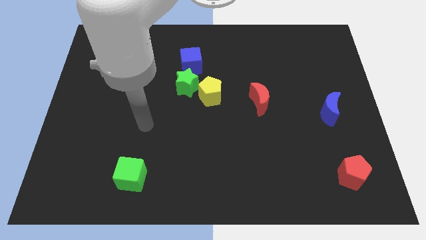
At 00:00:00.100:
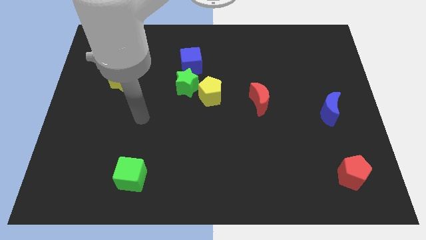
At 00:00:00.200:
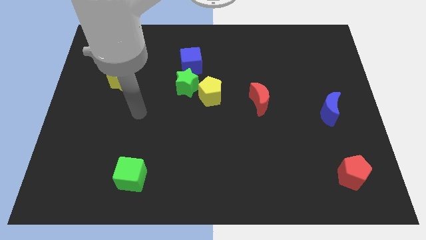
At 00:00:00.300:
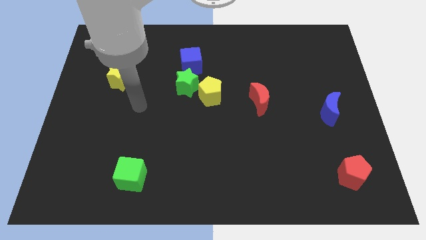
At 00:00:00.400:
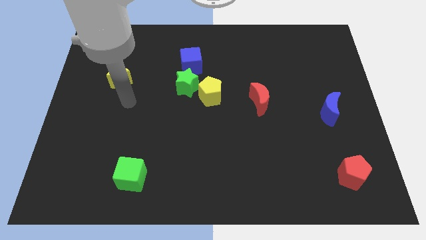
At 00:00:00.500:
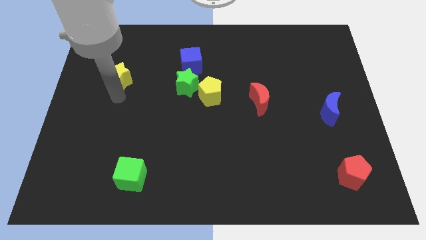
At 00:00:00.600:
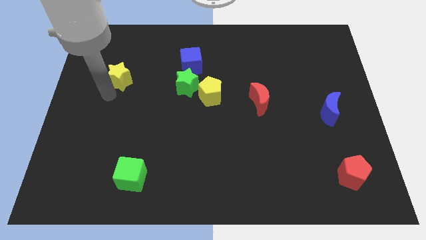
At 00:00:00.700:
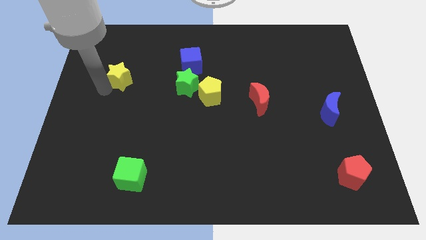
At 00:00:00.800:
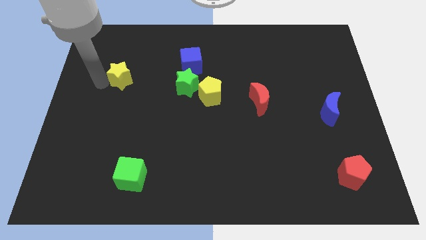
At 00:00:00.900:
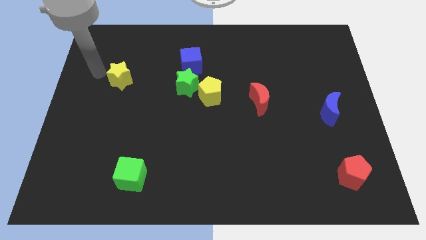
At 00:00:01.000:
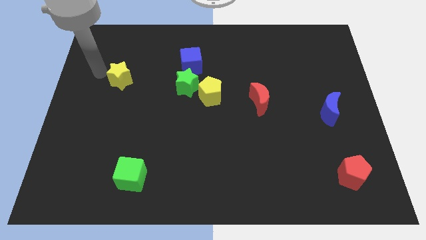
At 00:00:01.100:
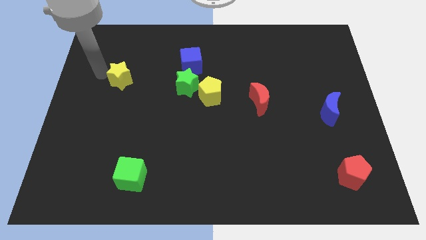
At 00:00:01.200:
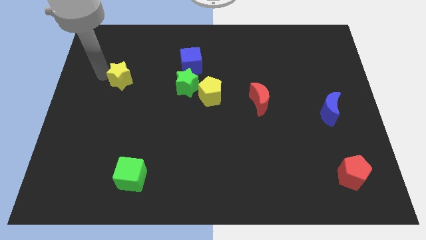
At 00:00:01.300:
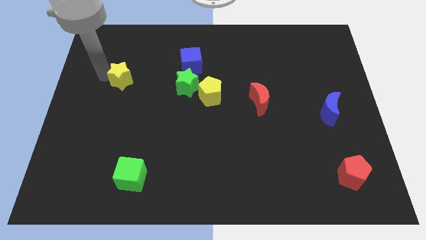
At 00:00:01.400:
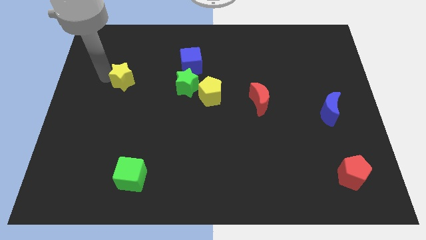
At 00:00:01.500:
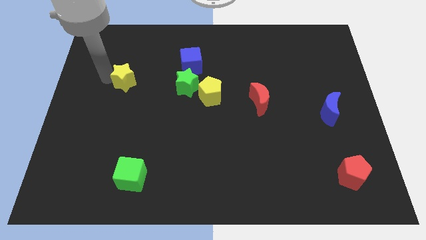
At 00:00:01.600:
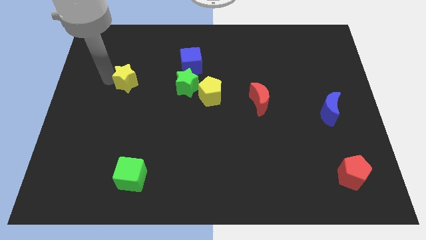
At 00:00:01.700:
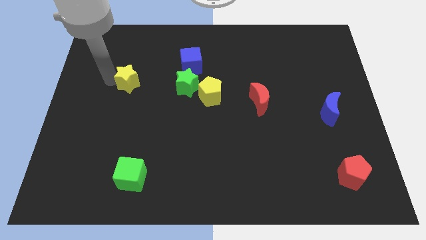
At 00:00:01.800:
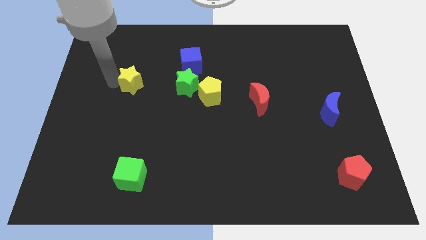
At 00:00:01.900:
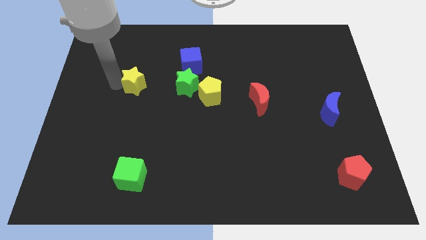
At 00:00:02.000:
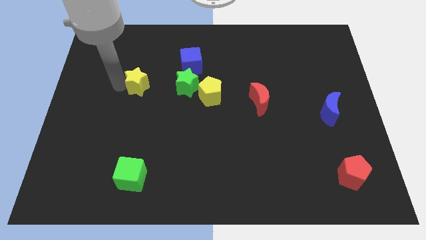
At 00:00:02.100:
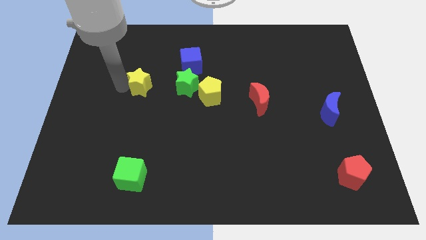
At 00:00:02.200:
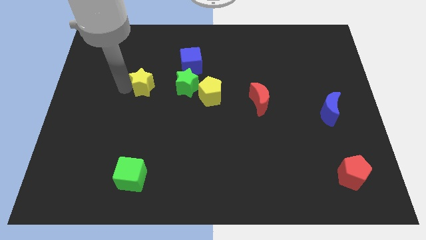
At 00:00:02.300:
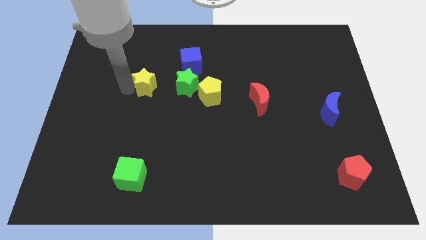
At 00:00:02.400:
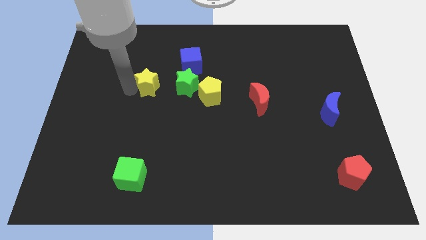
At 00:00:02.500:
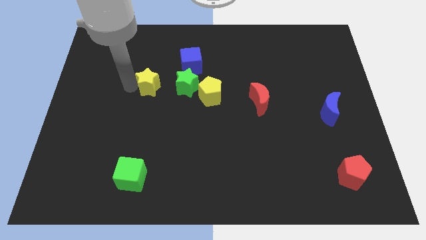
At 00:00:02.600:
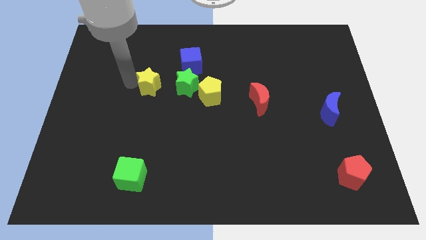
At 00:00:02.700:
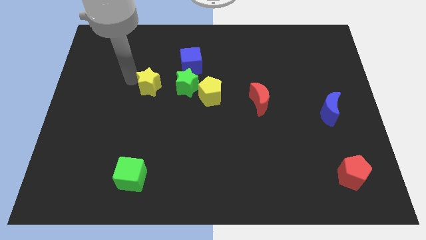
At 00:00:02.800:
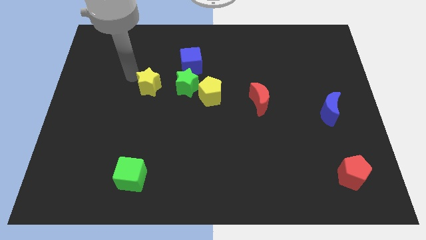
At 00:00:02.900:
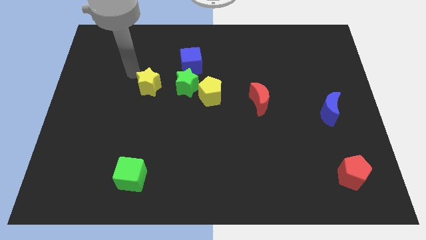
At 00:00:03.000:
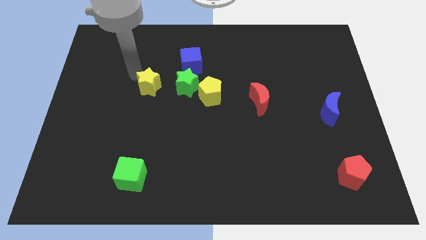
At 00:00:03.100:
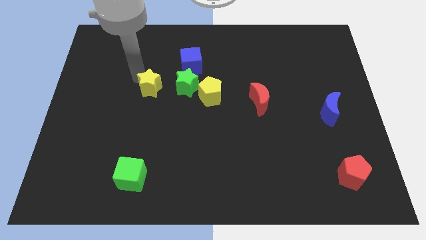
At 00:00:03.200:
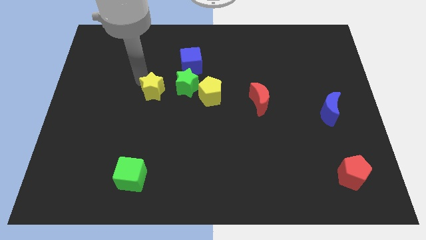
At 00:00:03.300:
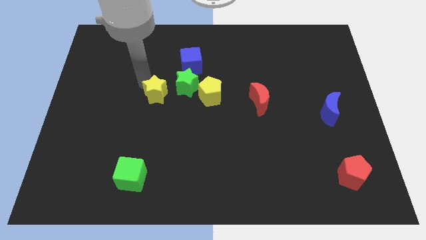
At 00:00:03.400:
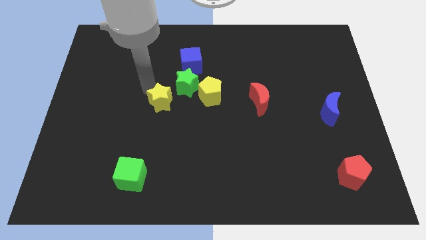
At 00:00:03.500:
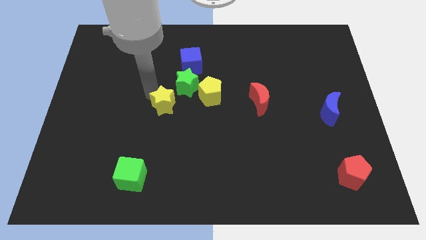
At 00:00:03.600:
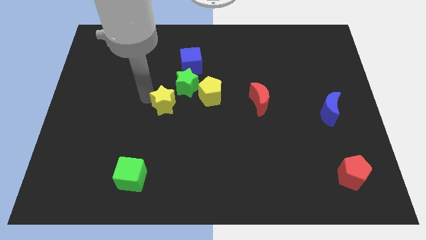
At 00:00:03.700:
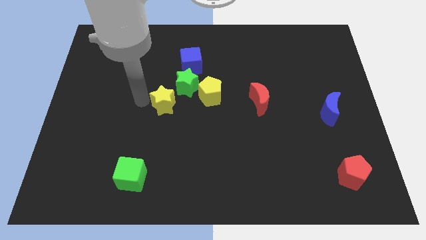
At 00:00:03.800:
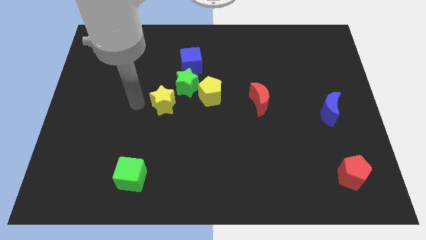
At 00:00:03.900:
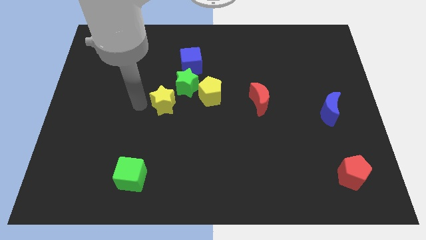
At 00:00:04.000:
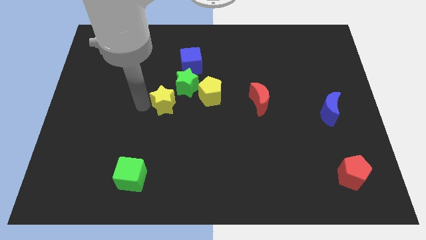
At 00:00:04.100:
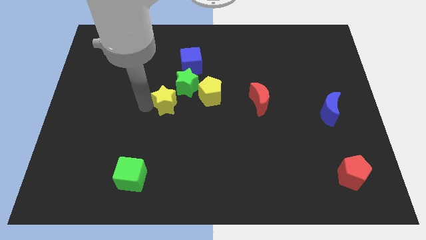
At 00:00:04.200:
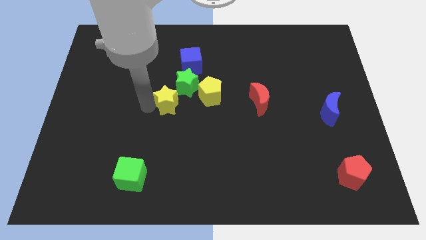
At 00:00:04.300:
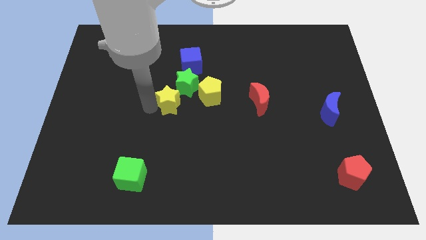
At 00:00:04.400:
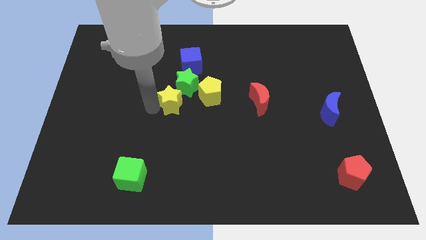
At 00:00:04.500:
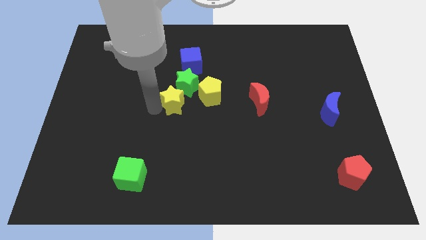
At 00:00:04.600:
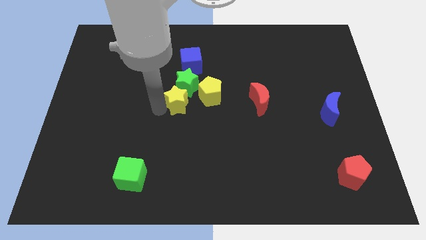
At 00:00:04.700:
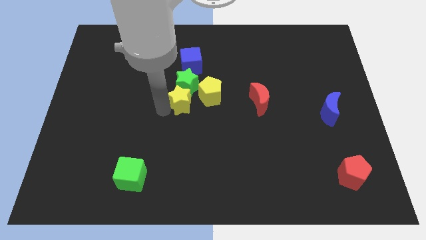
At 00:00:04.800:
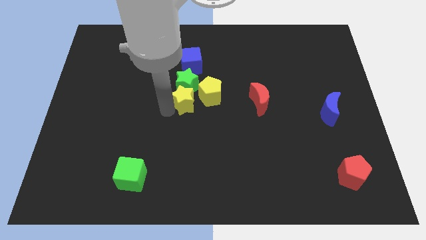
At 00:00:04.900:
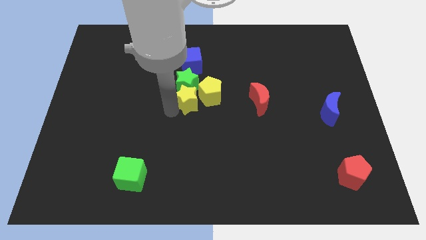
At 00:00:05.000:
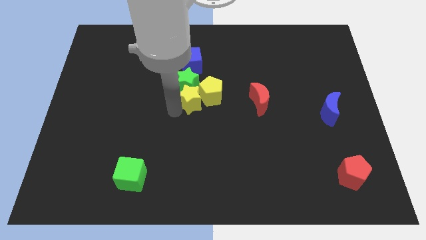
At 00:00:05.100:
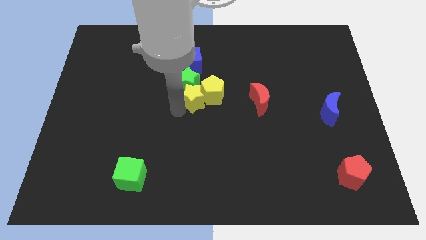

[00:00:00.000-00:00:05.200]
slide the yellow star left of the red moon

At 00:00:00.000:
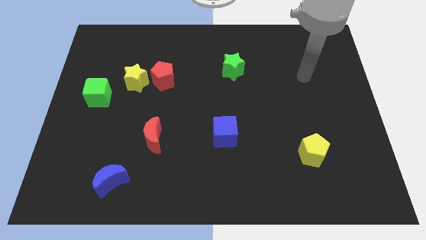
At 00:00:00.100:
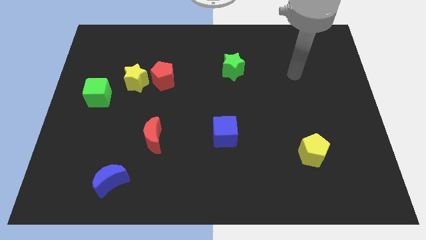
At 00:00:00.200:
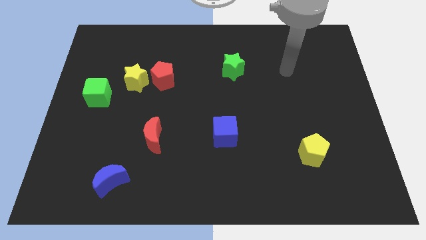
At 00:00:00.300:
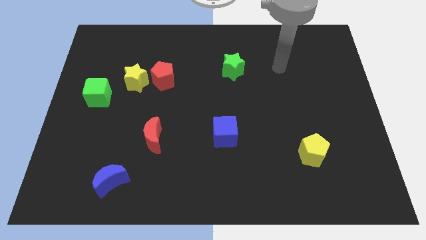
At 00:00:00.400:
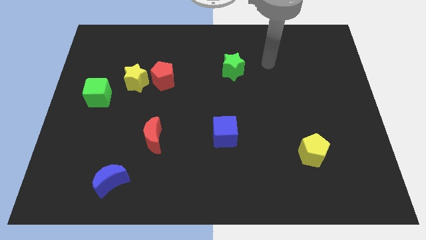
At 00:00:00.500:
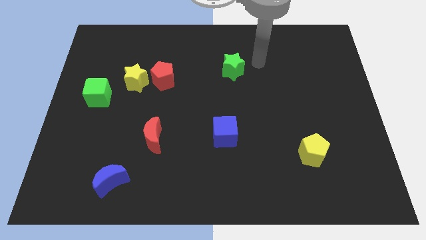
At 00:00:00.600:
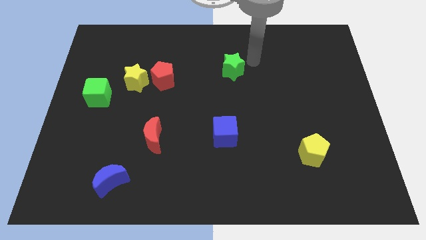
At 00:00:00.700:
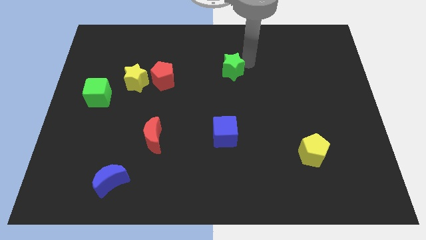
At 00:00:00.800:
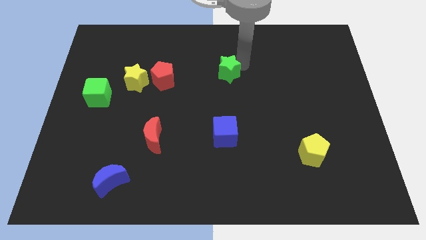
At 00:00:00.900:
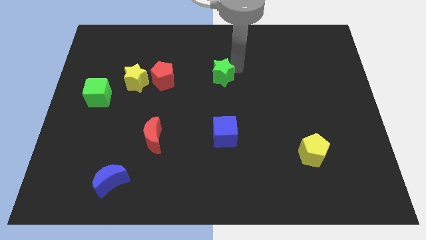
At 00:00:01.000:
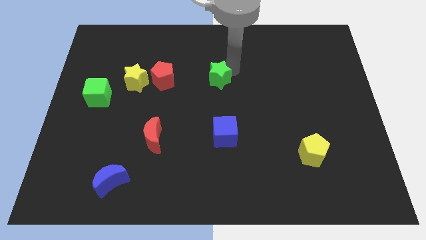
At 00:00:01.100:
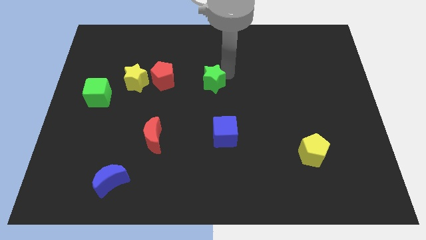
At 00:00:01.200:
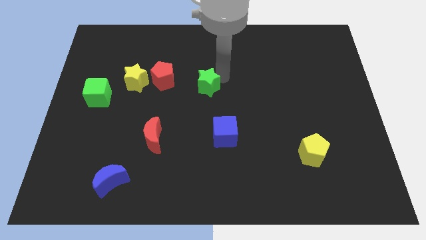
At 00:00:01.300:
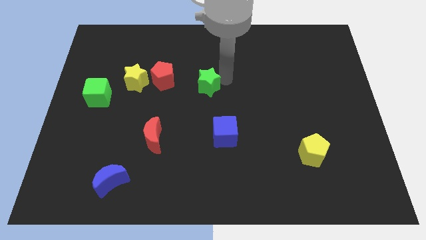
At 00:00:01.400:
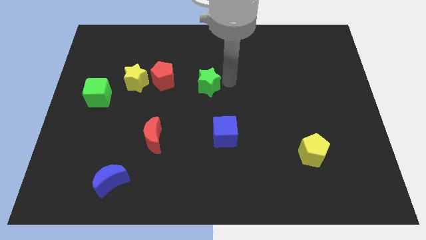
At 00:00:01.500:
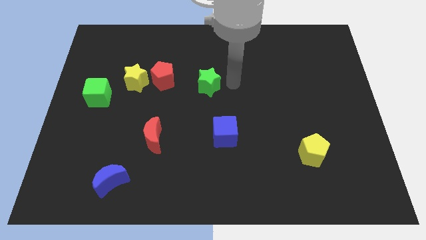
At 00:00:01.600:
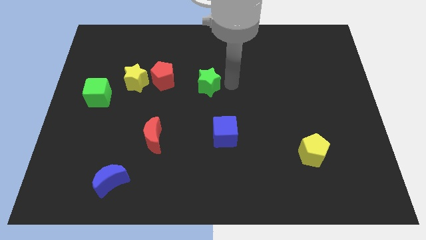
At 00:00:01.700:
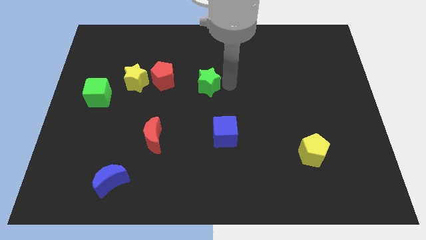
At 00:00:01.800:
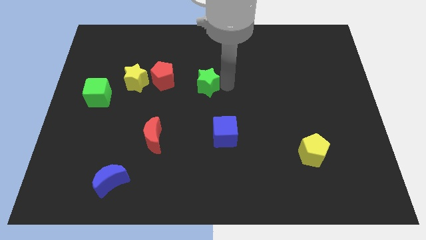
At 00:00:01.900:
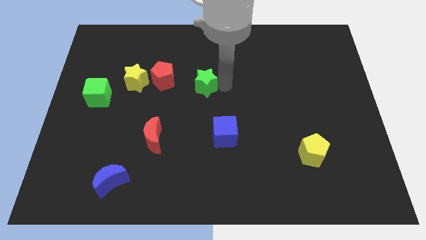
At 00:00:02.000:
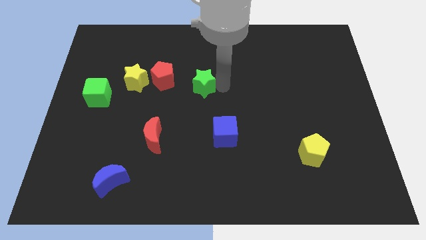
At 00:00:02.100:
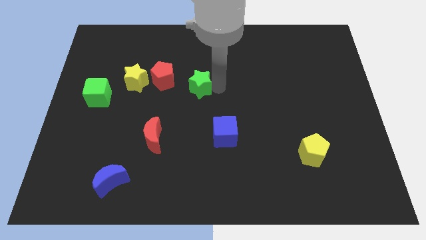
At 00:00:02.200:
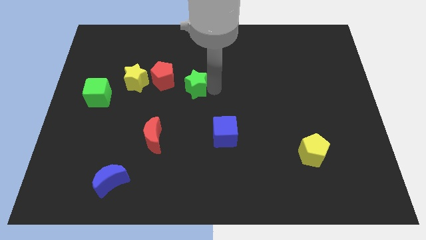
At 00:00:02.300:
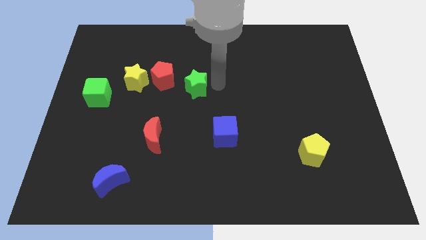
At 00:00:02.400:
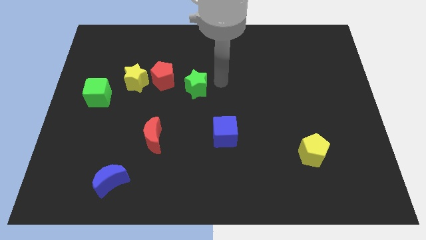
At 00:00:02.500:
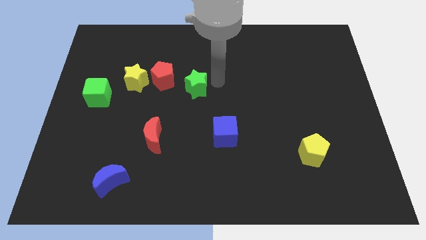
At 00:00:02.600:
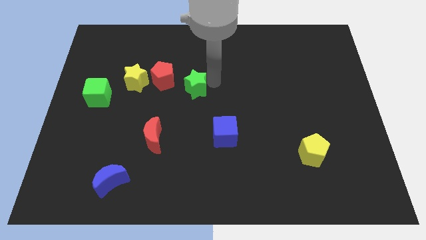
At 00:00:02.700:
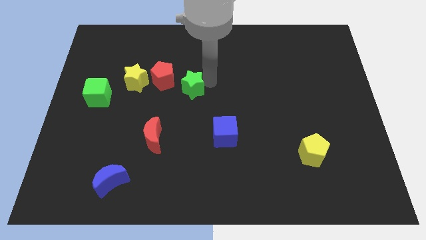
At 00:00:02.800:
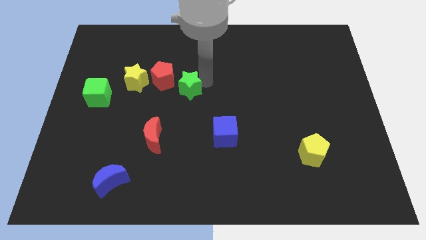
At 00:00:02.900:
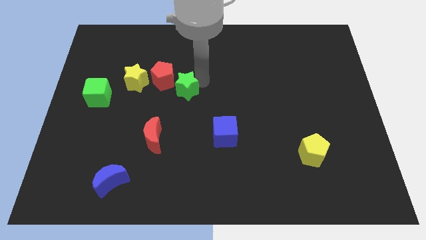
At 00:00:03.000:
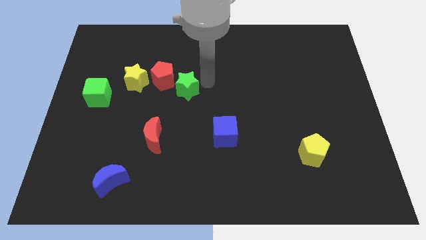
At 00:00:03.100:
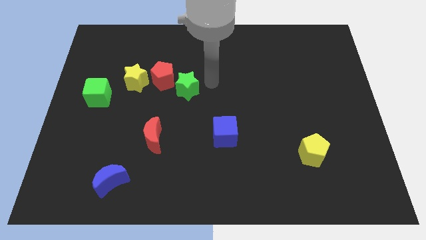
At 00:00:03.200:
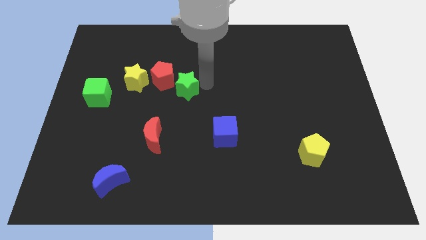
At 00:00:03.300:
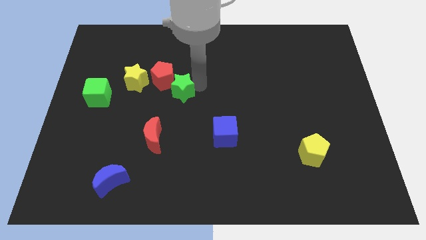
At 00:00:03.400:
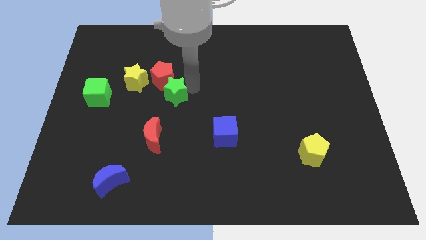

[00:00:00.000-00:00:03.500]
slide the green star to the bottom right of the yellow star
